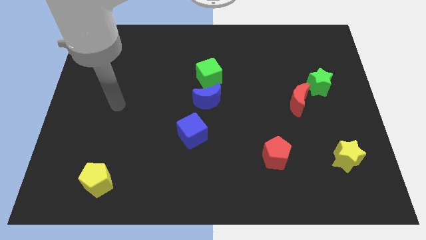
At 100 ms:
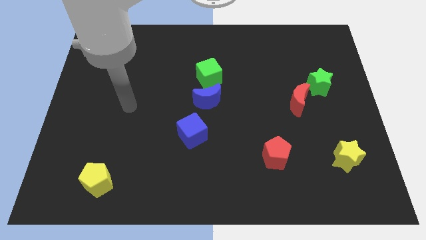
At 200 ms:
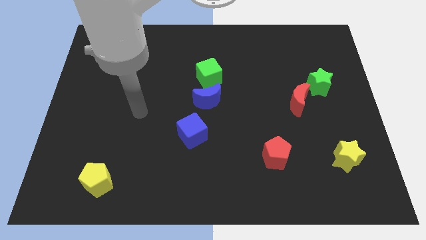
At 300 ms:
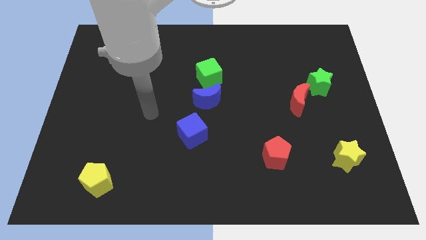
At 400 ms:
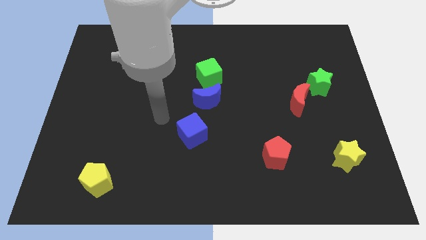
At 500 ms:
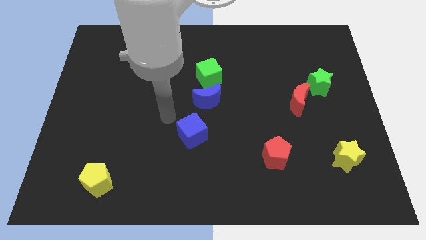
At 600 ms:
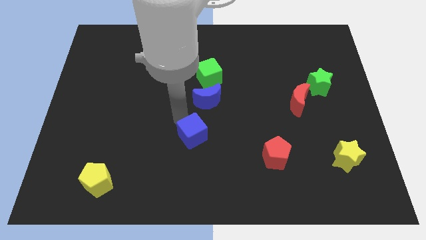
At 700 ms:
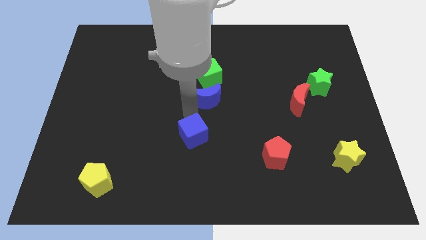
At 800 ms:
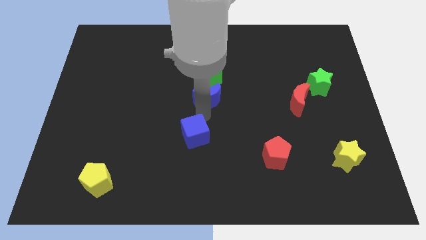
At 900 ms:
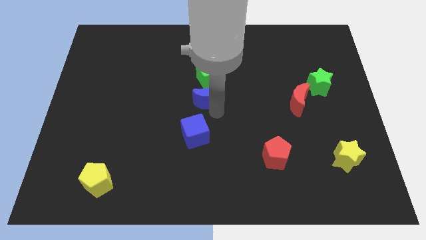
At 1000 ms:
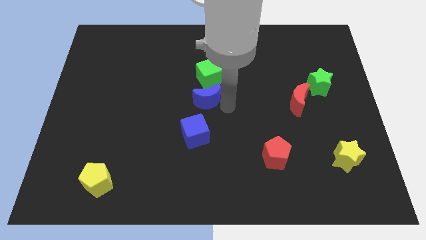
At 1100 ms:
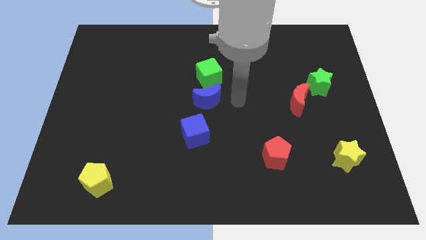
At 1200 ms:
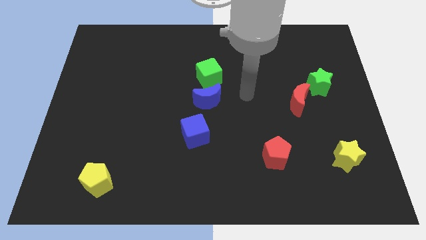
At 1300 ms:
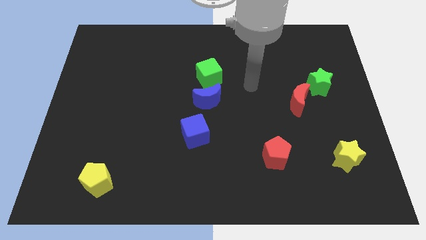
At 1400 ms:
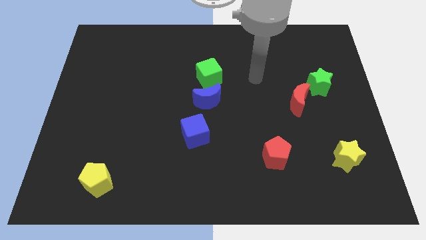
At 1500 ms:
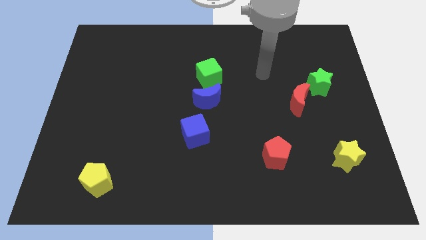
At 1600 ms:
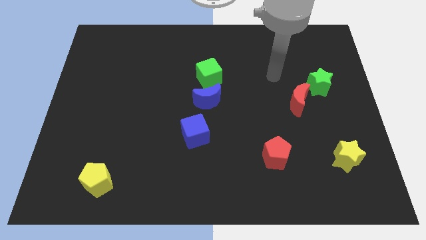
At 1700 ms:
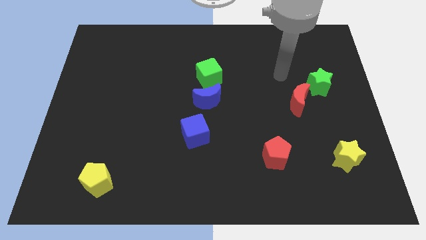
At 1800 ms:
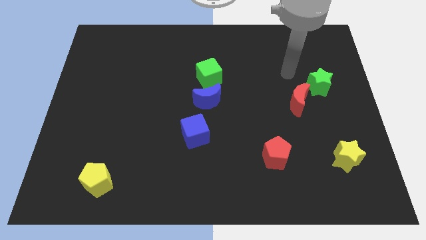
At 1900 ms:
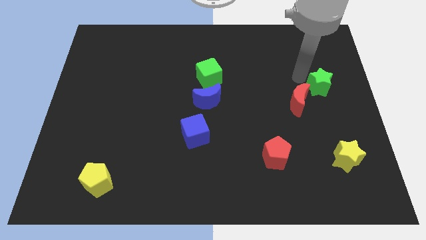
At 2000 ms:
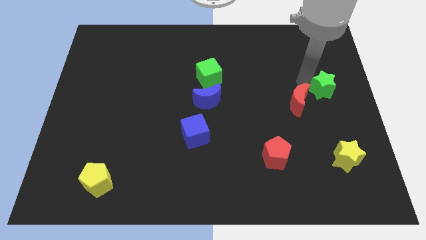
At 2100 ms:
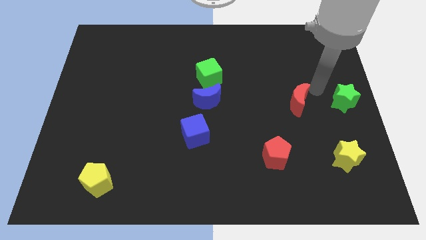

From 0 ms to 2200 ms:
separate the red moon from the green star

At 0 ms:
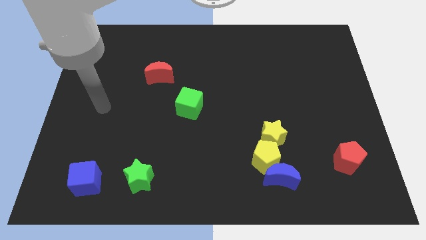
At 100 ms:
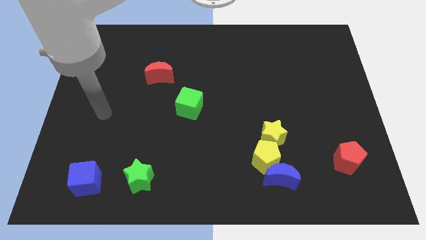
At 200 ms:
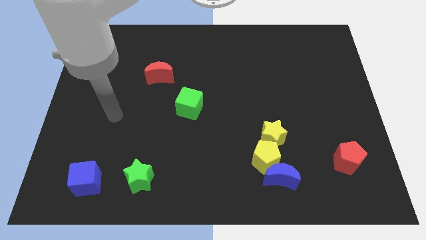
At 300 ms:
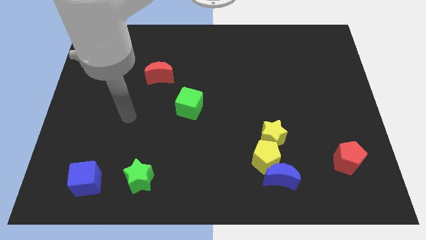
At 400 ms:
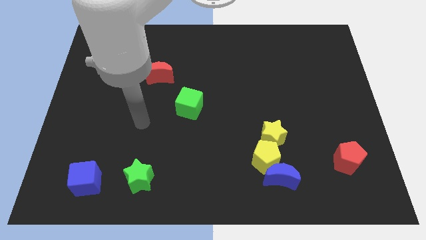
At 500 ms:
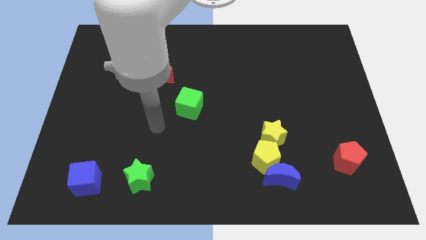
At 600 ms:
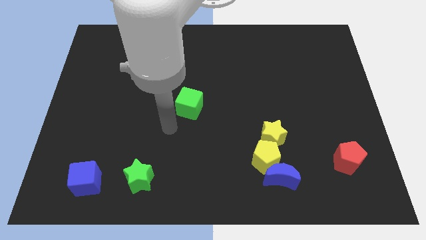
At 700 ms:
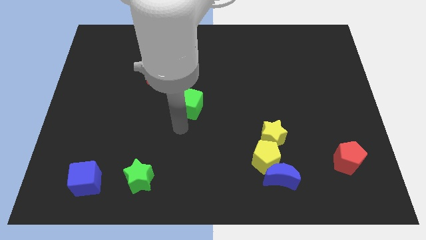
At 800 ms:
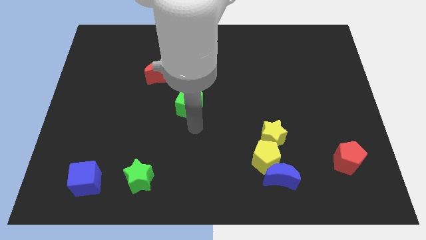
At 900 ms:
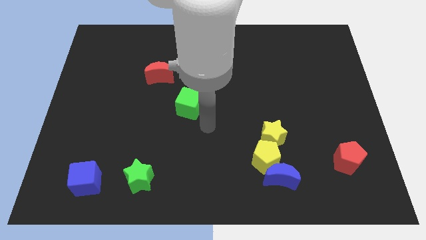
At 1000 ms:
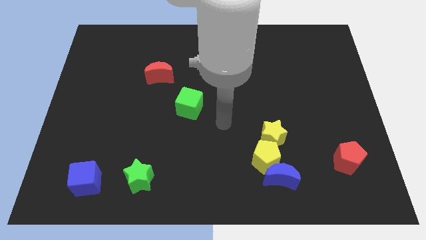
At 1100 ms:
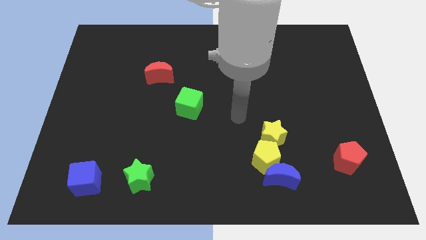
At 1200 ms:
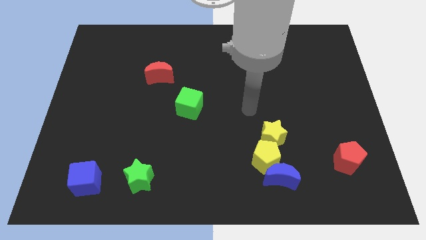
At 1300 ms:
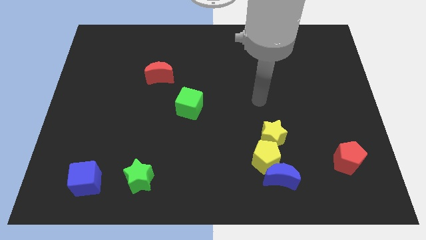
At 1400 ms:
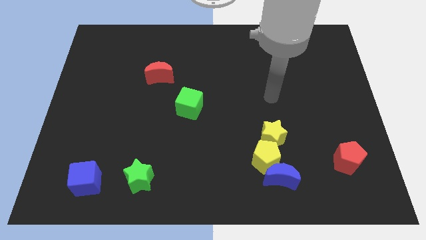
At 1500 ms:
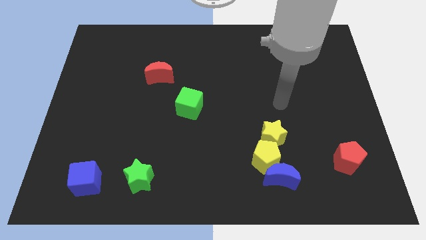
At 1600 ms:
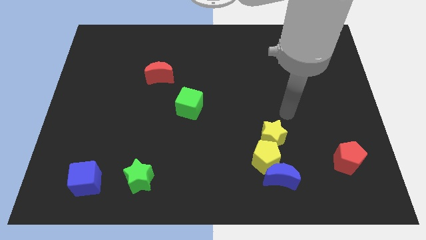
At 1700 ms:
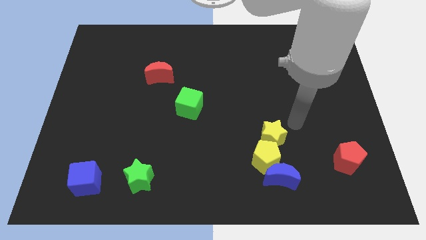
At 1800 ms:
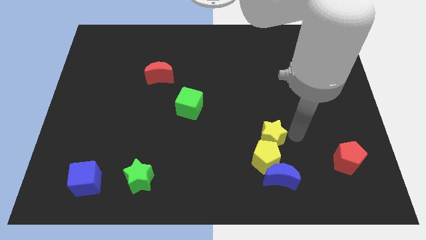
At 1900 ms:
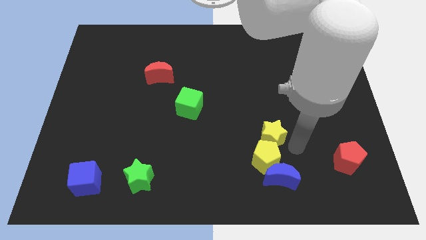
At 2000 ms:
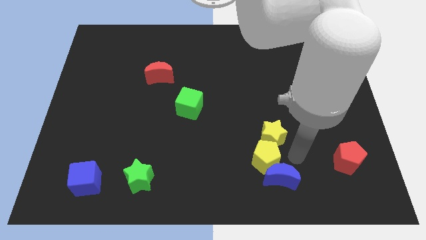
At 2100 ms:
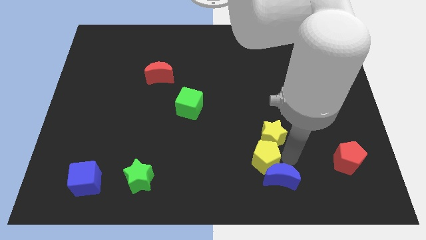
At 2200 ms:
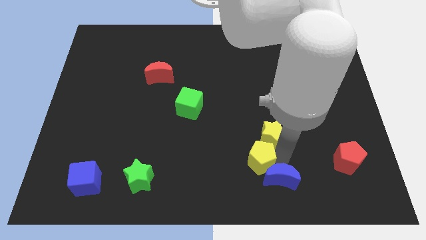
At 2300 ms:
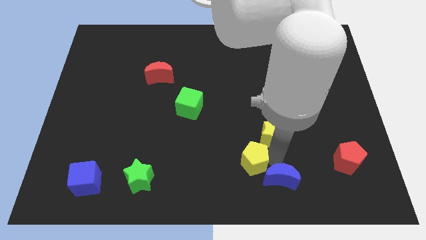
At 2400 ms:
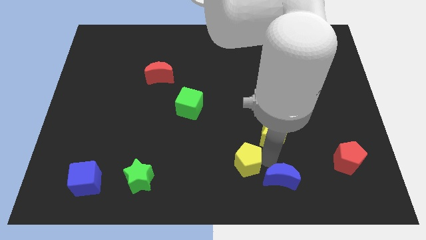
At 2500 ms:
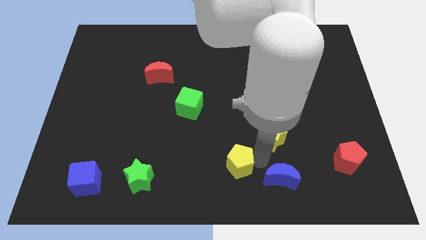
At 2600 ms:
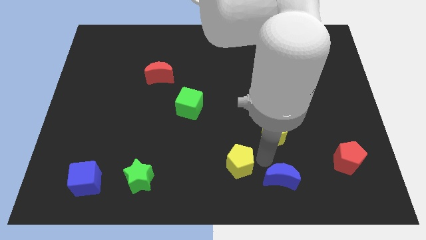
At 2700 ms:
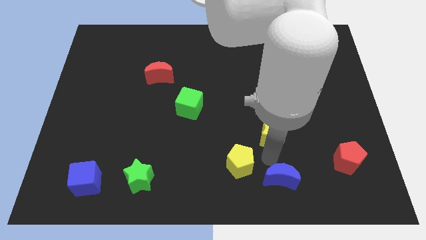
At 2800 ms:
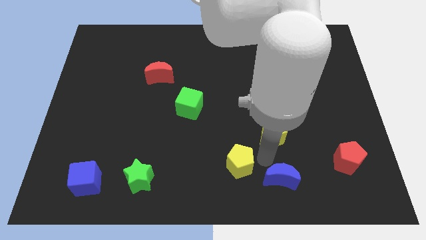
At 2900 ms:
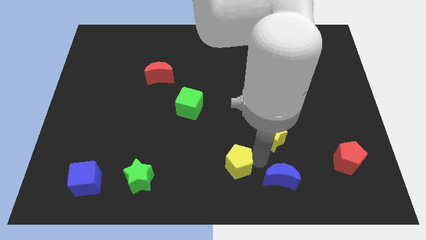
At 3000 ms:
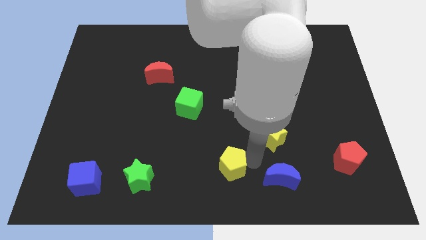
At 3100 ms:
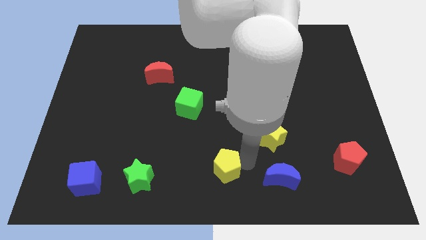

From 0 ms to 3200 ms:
pull the yellow pentagon apart from the blue moon and yellow star

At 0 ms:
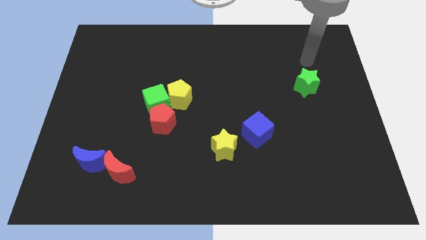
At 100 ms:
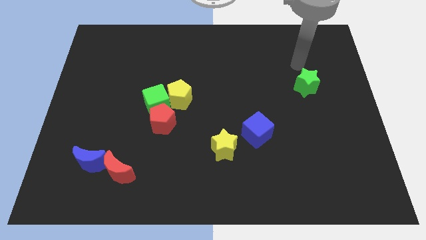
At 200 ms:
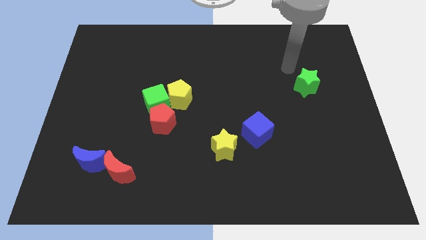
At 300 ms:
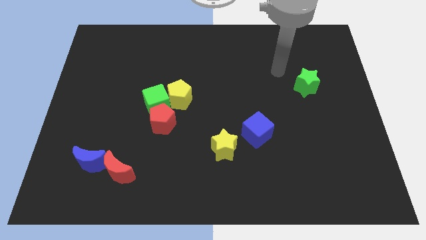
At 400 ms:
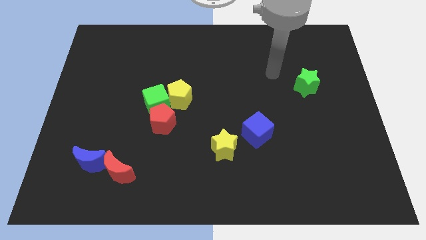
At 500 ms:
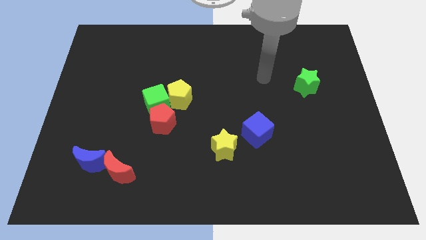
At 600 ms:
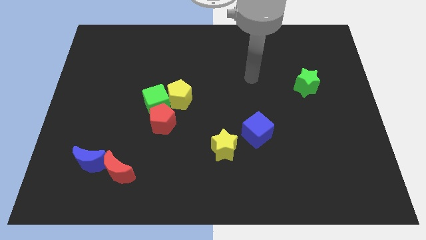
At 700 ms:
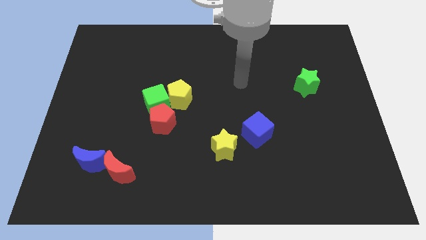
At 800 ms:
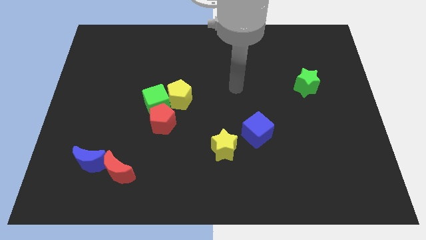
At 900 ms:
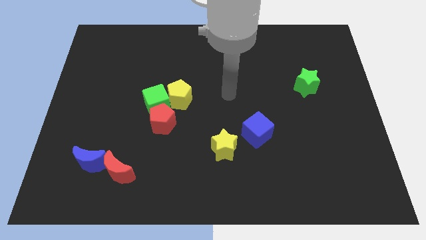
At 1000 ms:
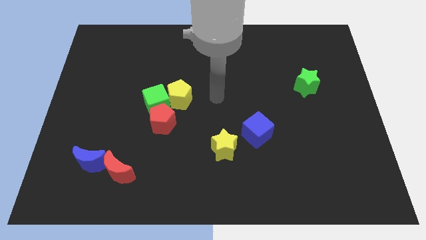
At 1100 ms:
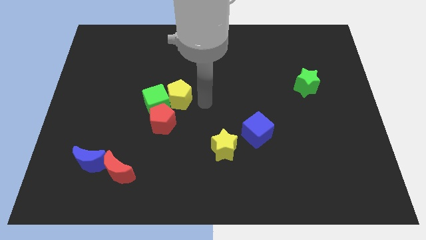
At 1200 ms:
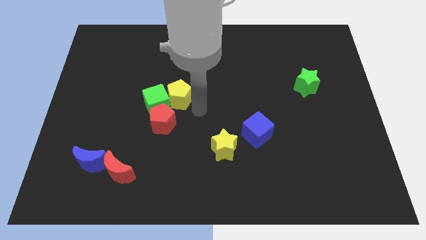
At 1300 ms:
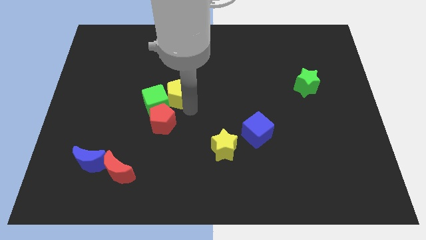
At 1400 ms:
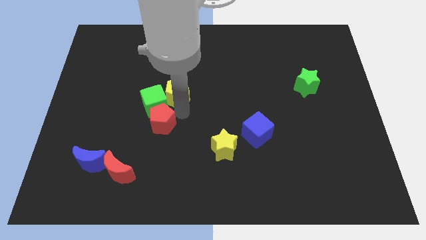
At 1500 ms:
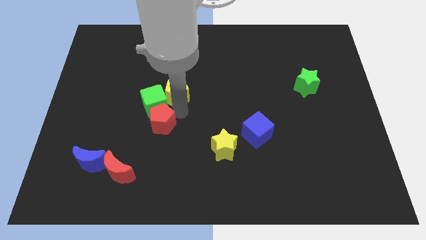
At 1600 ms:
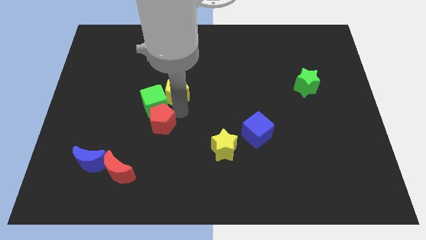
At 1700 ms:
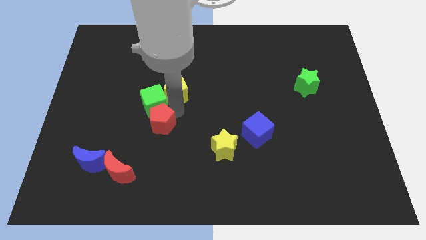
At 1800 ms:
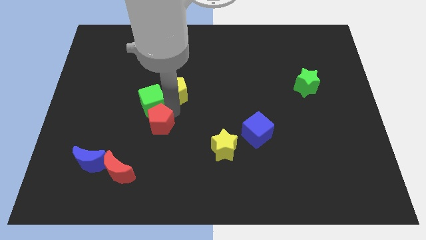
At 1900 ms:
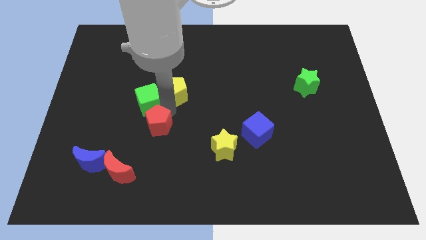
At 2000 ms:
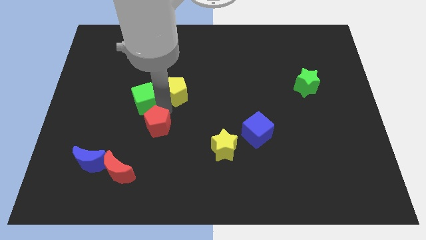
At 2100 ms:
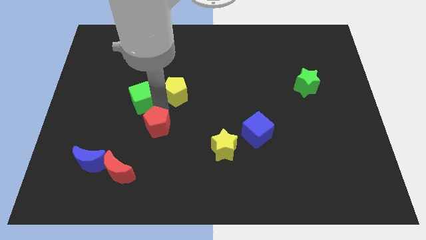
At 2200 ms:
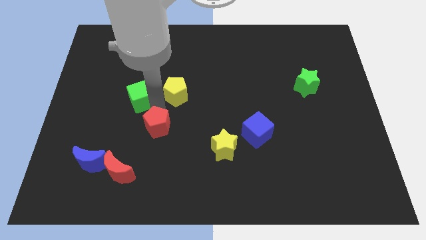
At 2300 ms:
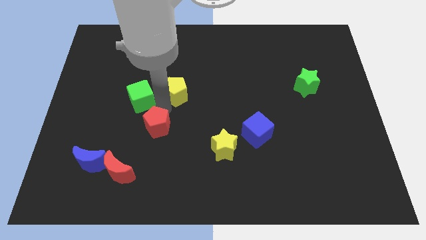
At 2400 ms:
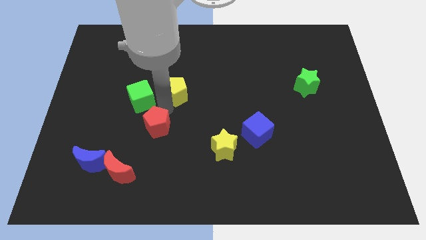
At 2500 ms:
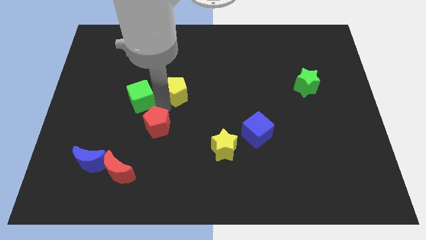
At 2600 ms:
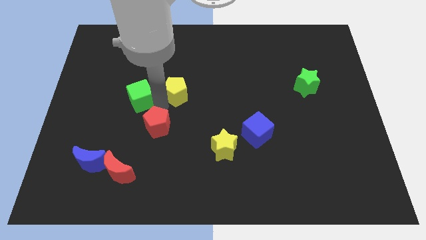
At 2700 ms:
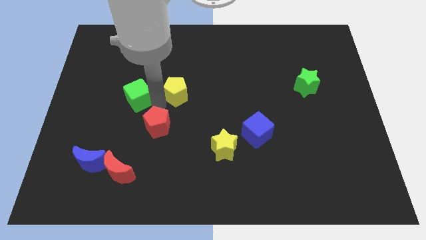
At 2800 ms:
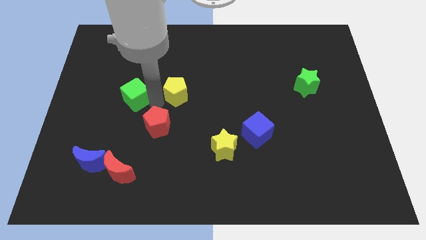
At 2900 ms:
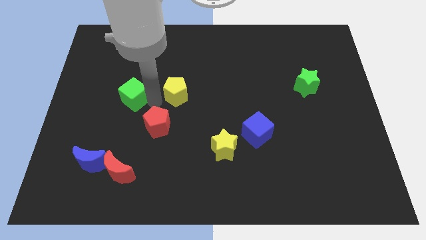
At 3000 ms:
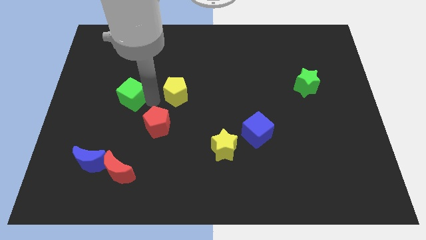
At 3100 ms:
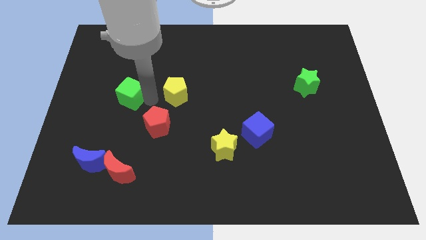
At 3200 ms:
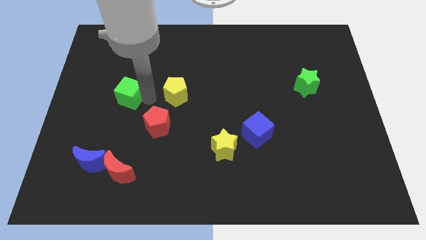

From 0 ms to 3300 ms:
move the green cube away from the red pentagon and yellow pentagon

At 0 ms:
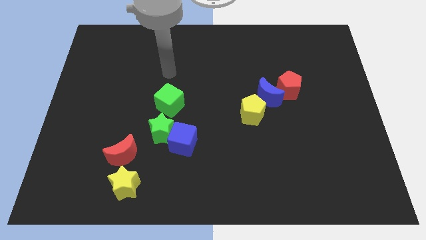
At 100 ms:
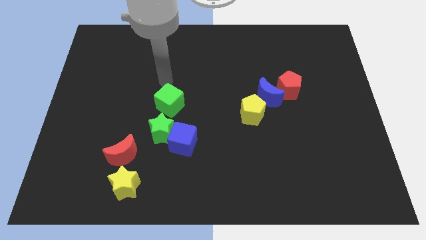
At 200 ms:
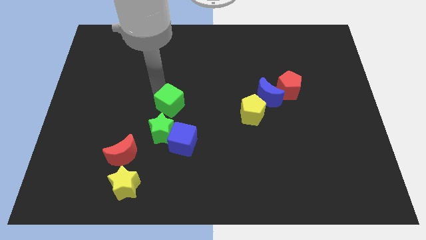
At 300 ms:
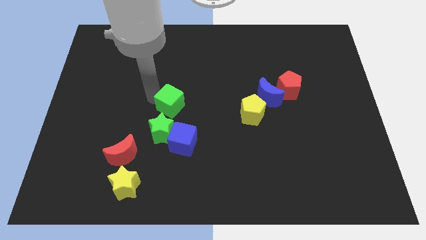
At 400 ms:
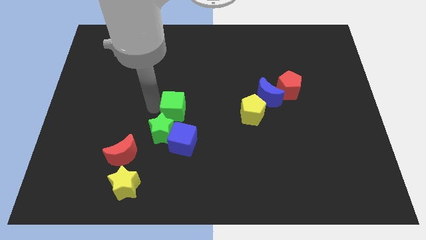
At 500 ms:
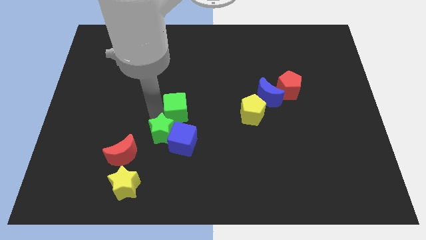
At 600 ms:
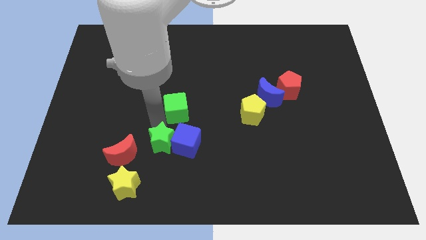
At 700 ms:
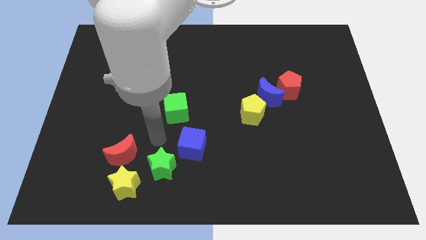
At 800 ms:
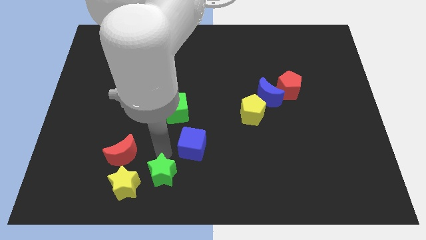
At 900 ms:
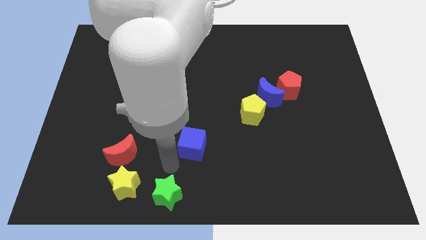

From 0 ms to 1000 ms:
move the blue cube away from the green star
